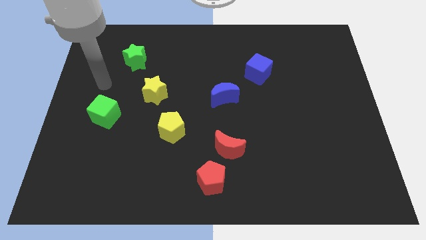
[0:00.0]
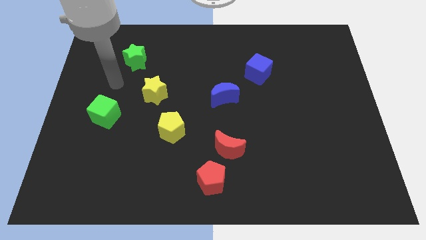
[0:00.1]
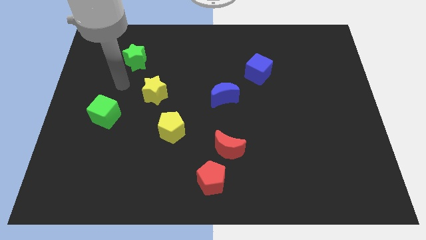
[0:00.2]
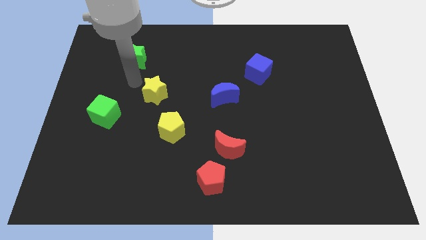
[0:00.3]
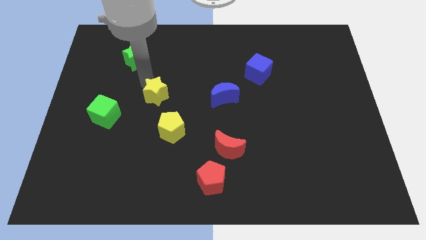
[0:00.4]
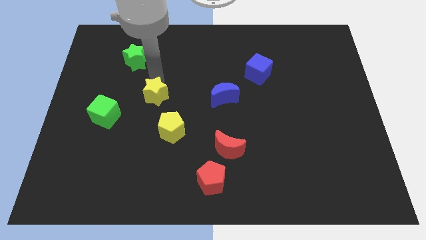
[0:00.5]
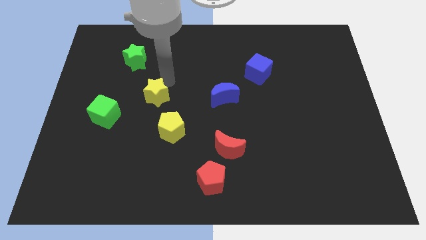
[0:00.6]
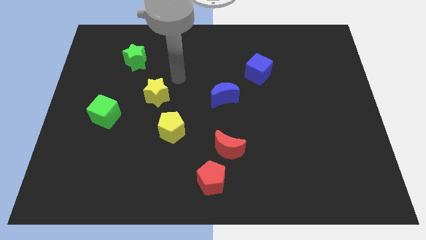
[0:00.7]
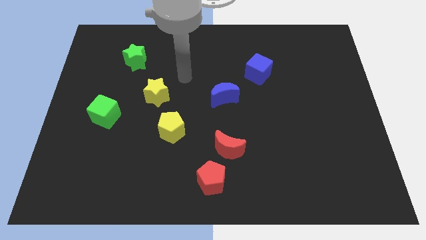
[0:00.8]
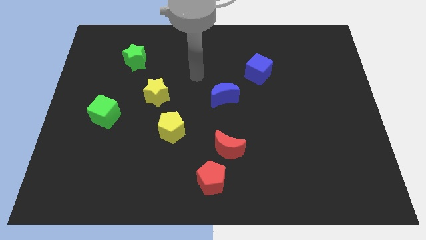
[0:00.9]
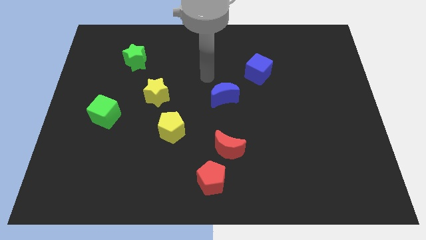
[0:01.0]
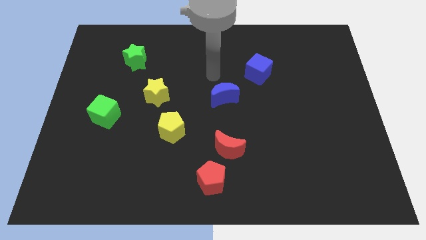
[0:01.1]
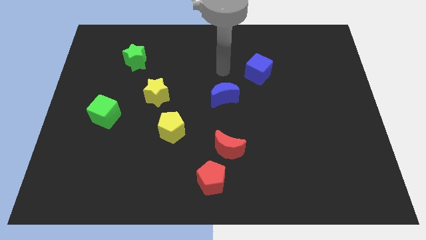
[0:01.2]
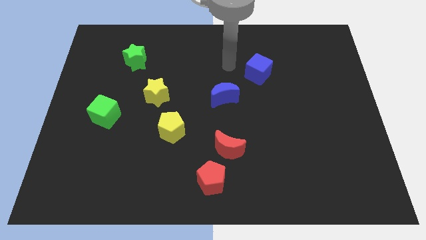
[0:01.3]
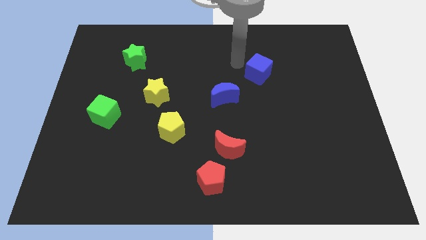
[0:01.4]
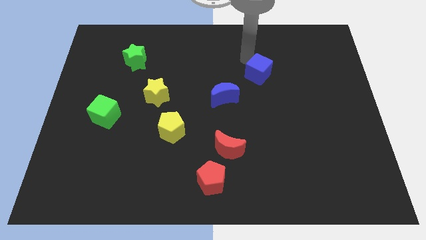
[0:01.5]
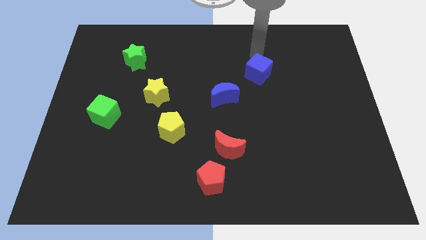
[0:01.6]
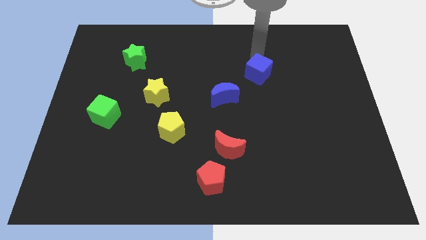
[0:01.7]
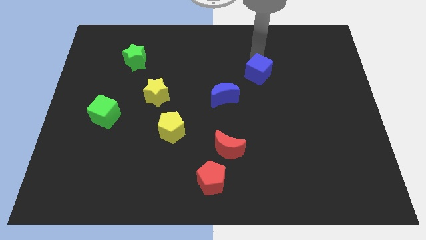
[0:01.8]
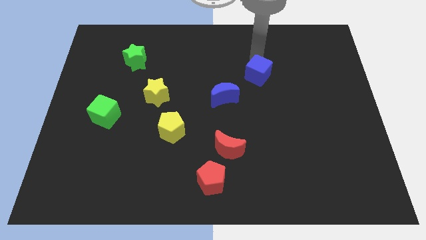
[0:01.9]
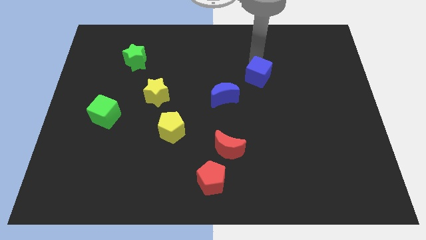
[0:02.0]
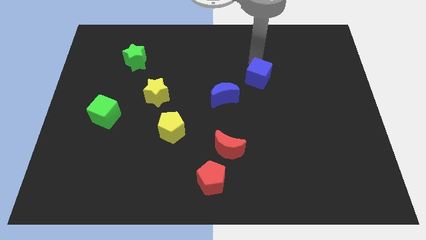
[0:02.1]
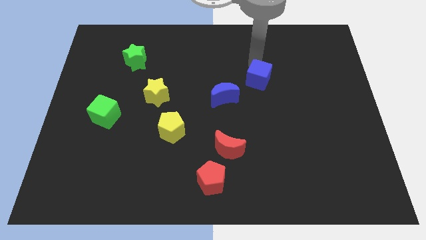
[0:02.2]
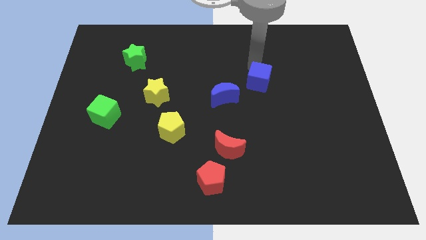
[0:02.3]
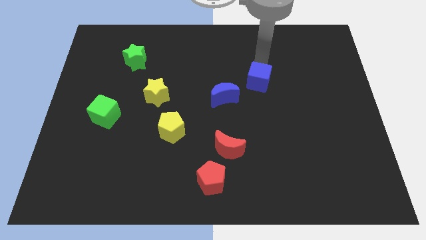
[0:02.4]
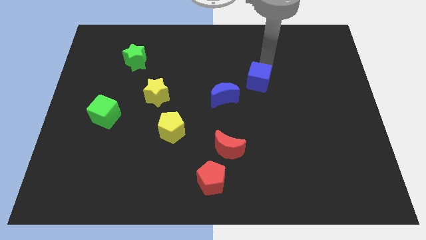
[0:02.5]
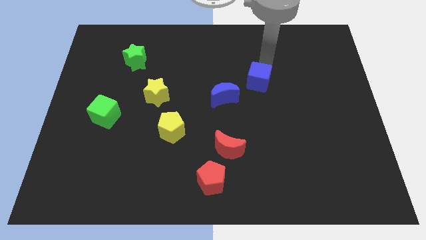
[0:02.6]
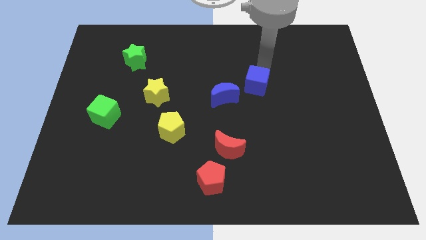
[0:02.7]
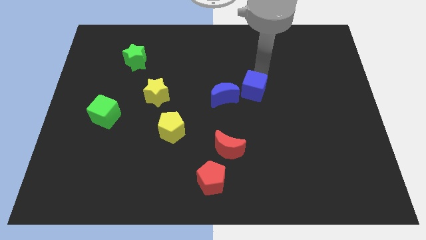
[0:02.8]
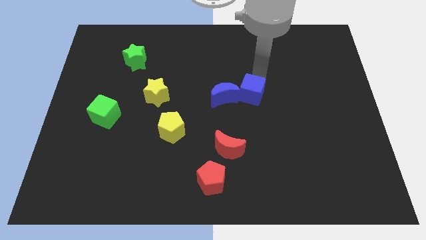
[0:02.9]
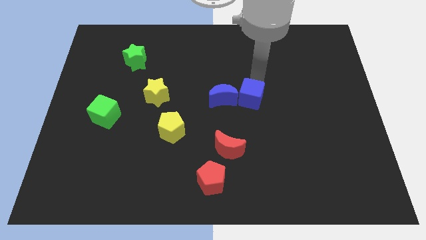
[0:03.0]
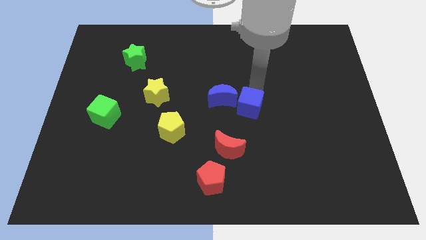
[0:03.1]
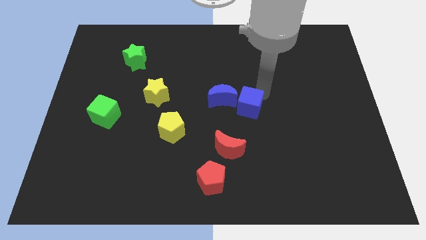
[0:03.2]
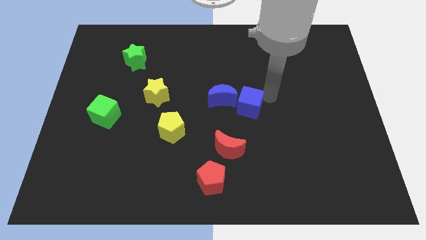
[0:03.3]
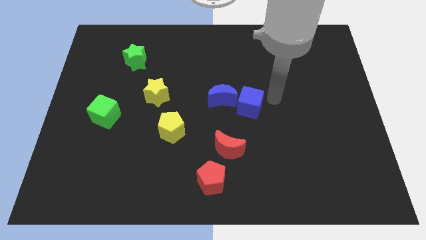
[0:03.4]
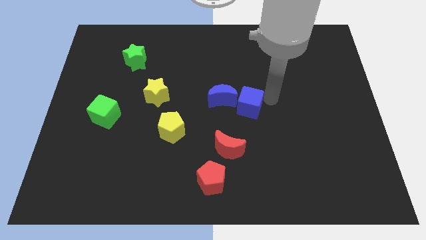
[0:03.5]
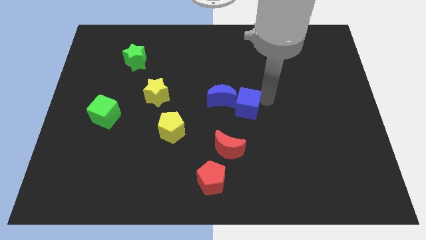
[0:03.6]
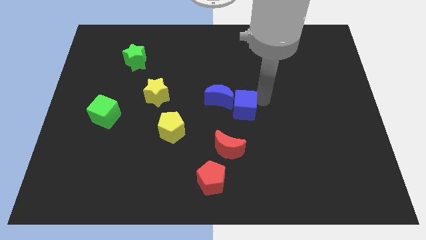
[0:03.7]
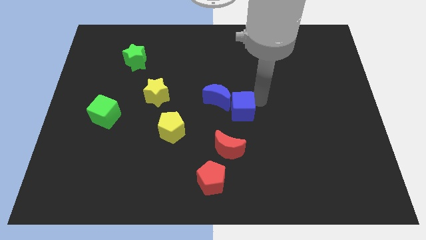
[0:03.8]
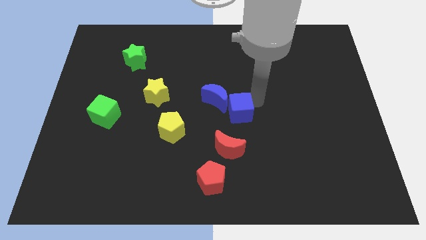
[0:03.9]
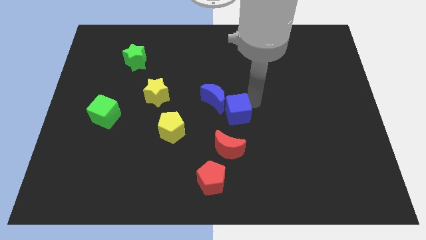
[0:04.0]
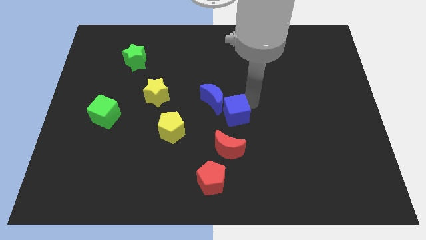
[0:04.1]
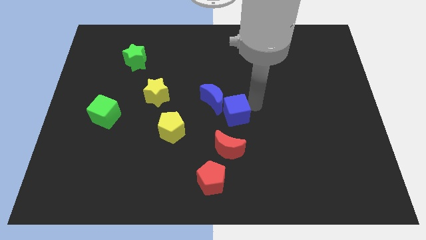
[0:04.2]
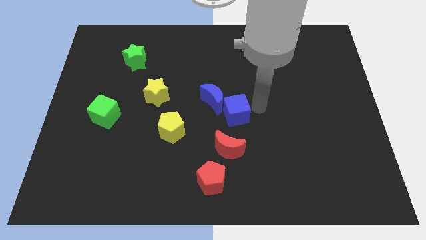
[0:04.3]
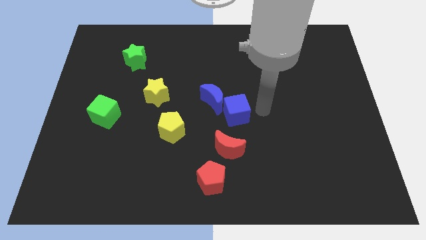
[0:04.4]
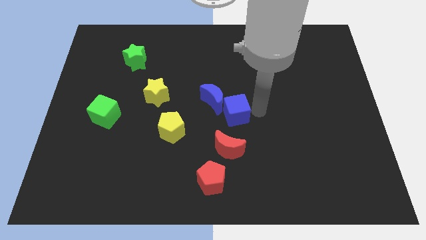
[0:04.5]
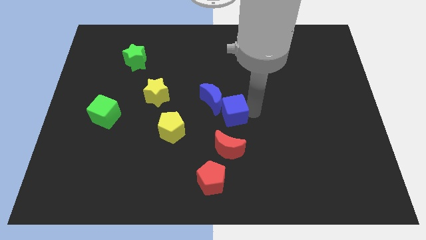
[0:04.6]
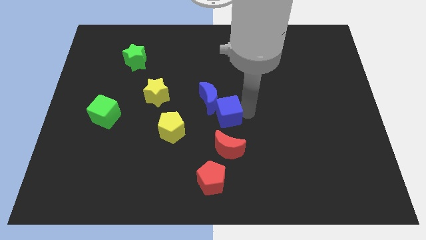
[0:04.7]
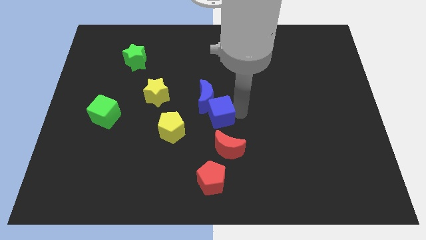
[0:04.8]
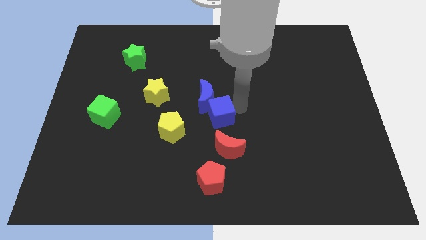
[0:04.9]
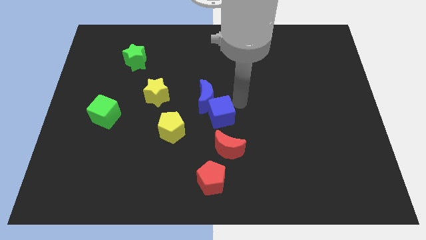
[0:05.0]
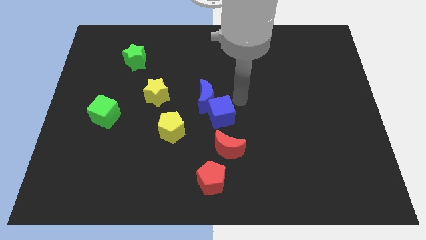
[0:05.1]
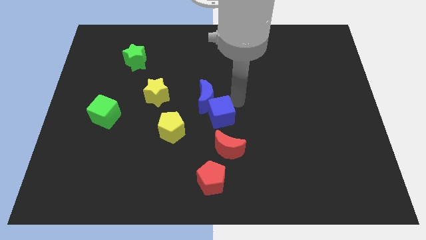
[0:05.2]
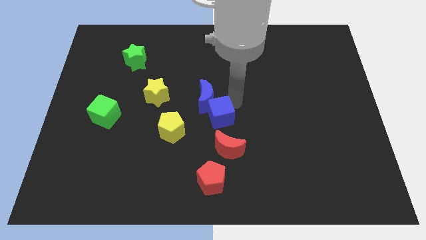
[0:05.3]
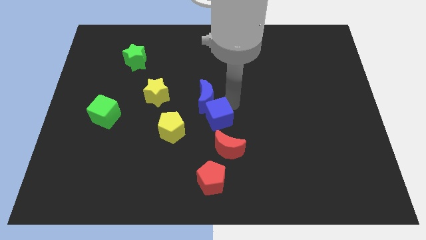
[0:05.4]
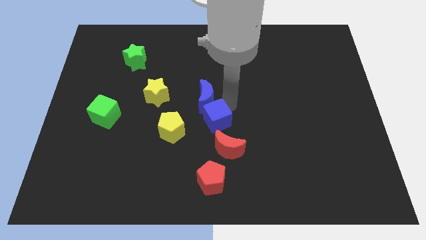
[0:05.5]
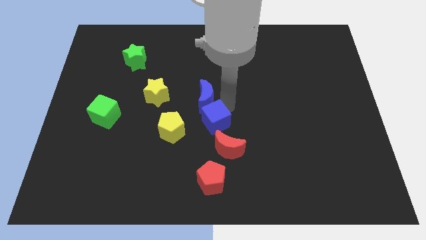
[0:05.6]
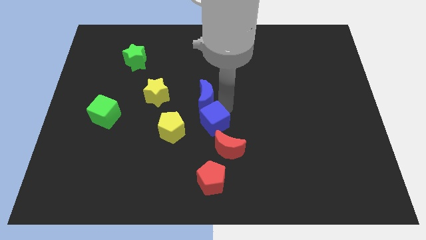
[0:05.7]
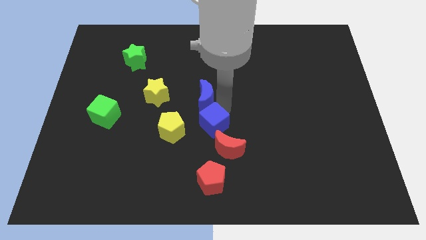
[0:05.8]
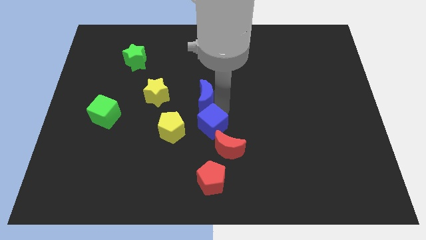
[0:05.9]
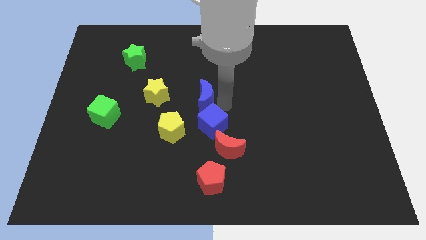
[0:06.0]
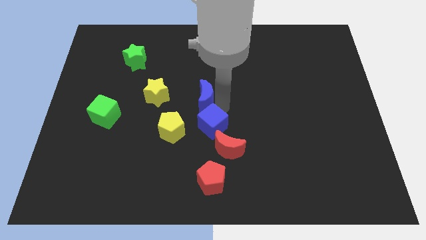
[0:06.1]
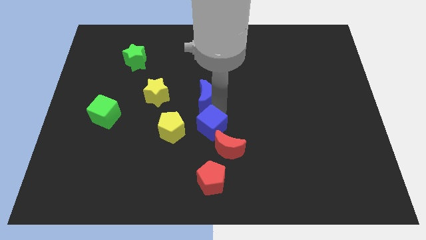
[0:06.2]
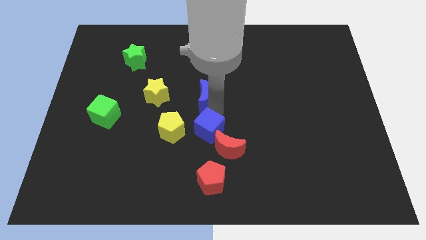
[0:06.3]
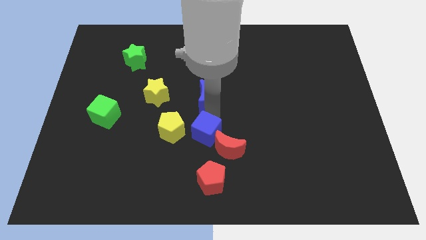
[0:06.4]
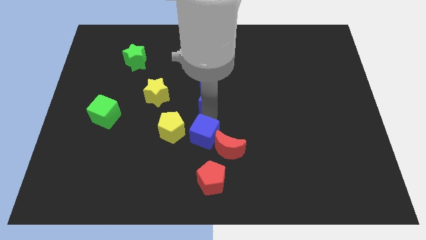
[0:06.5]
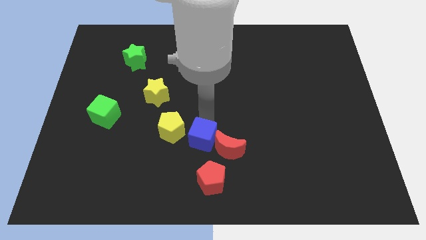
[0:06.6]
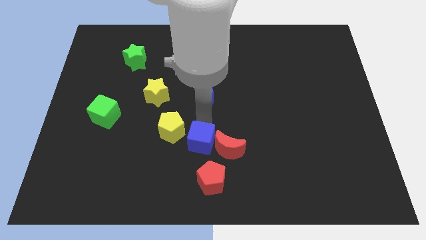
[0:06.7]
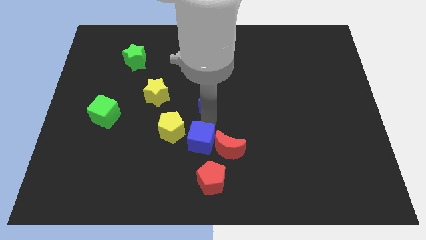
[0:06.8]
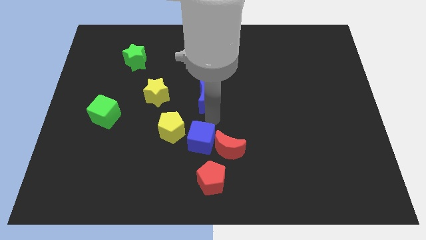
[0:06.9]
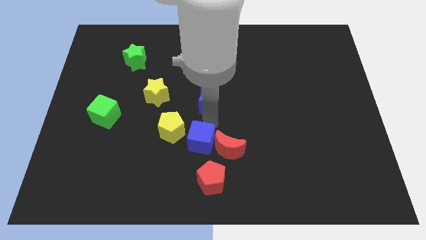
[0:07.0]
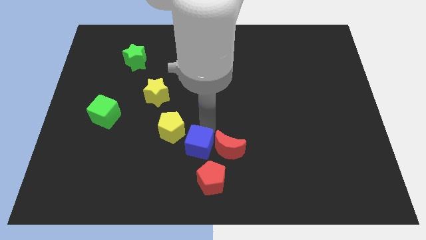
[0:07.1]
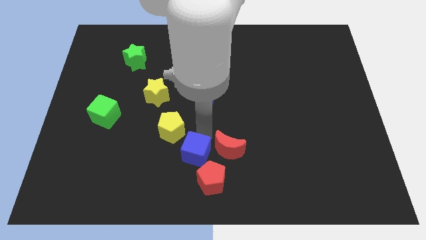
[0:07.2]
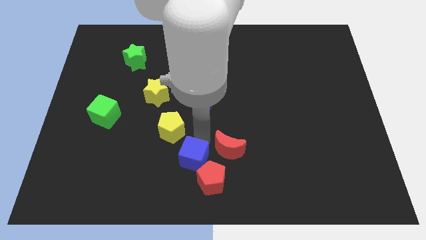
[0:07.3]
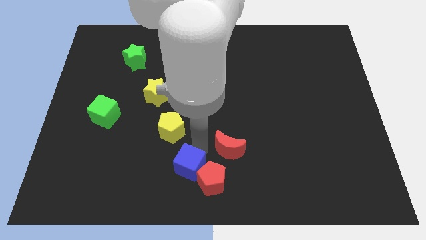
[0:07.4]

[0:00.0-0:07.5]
put the blue cube to the left of the red pentagon
